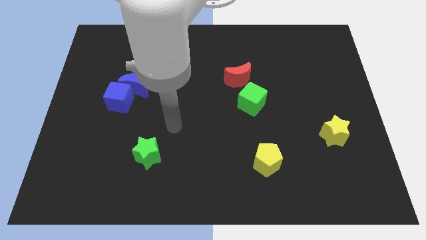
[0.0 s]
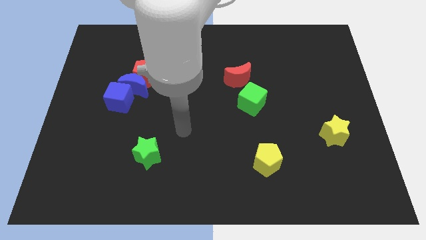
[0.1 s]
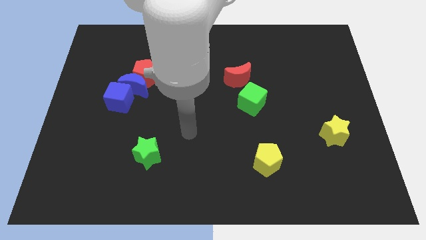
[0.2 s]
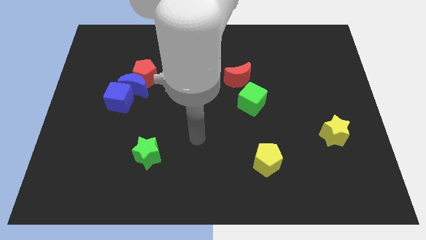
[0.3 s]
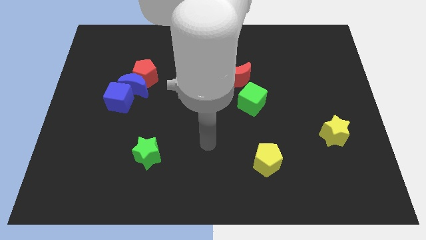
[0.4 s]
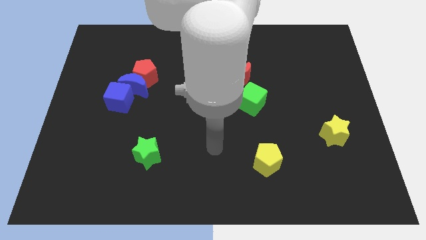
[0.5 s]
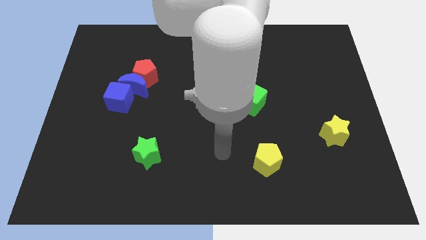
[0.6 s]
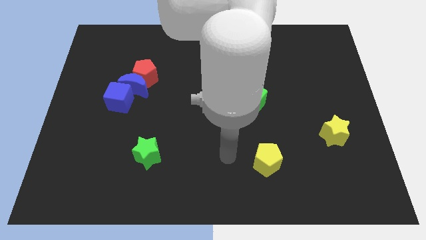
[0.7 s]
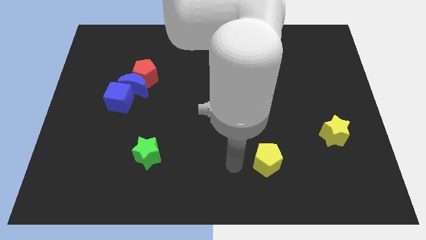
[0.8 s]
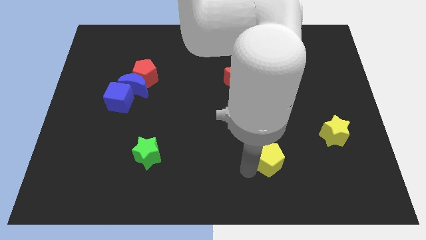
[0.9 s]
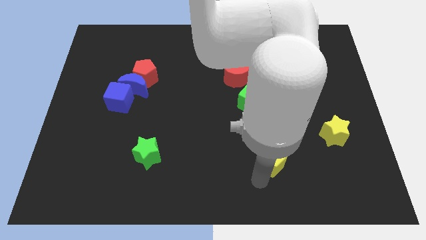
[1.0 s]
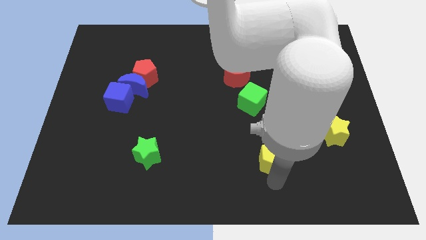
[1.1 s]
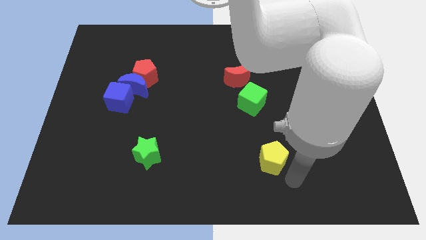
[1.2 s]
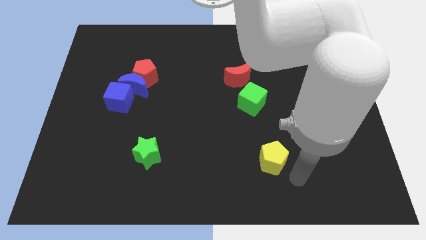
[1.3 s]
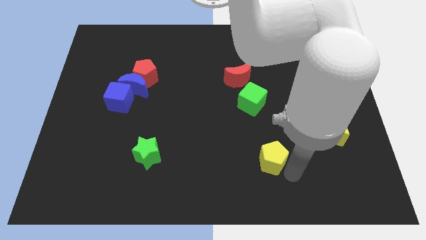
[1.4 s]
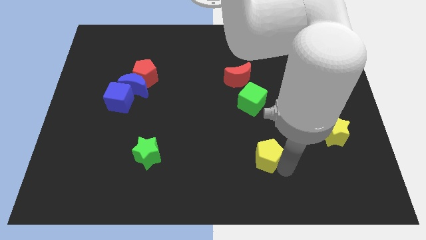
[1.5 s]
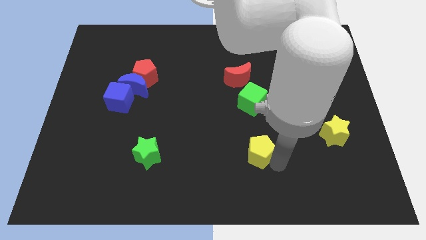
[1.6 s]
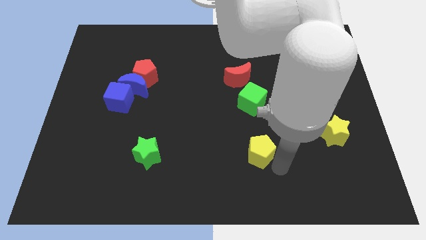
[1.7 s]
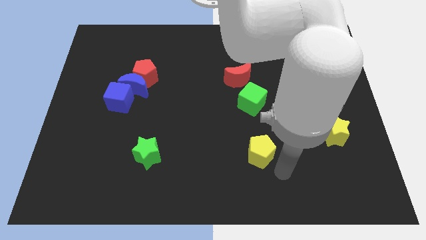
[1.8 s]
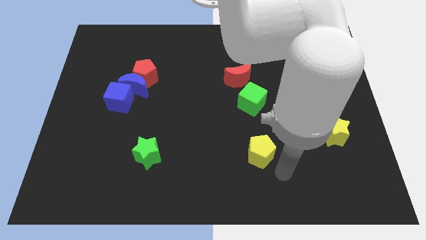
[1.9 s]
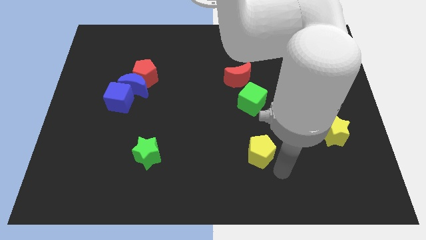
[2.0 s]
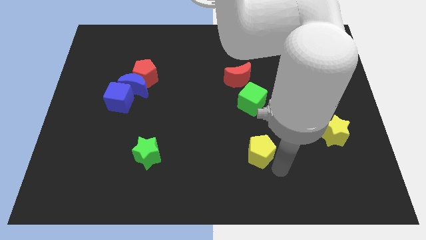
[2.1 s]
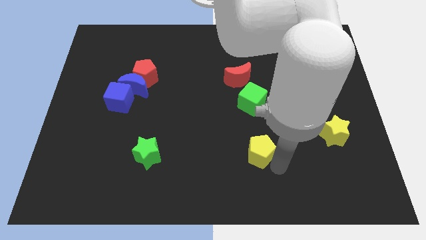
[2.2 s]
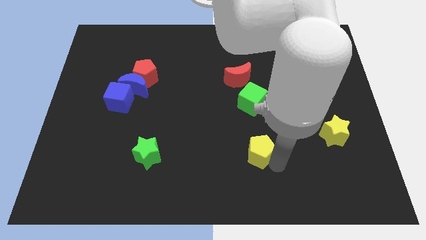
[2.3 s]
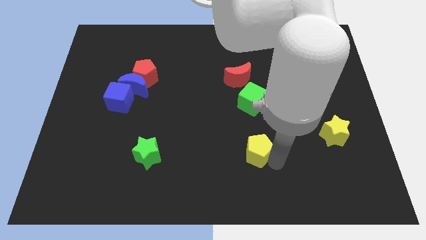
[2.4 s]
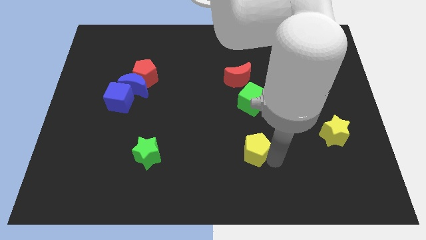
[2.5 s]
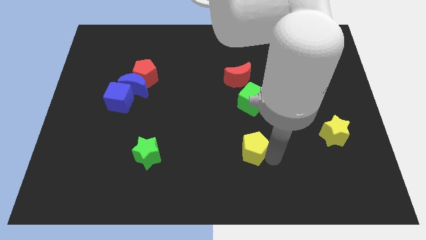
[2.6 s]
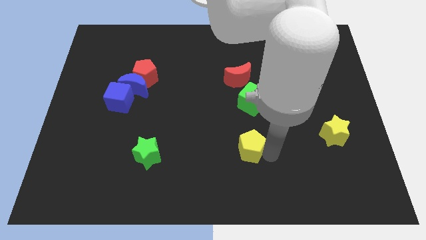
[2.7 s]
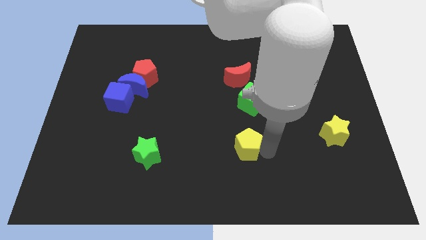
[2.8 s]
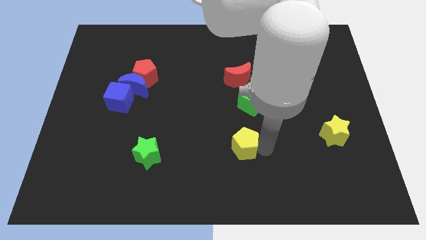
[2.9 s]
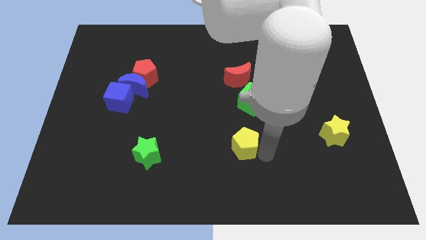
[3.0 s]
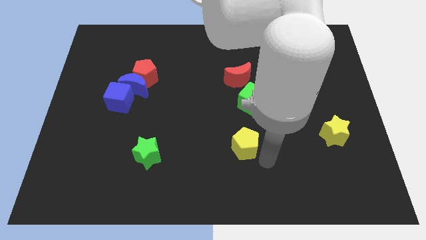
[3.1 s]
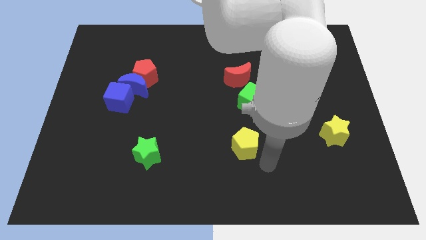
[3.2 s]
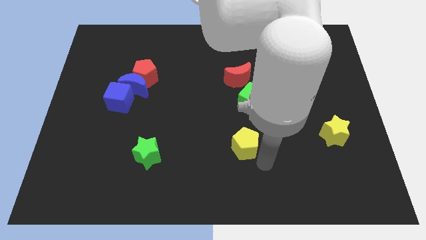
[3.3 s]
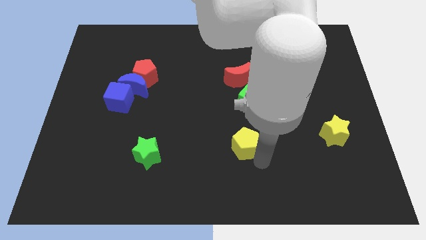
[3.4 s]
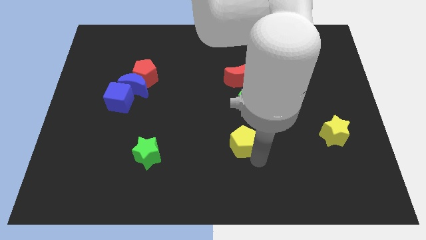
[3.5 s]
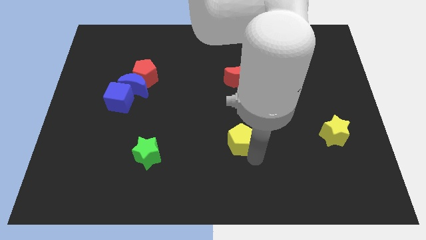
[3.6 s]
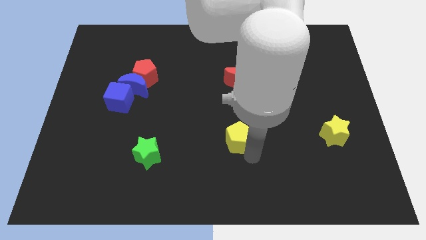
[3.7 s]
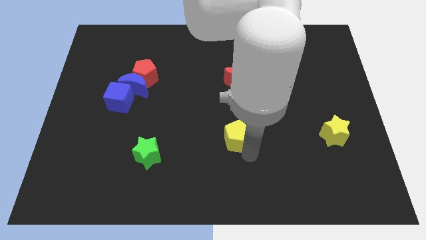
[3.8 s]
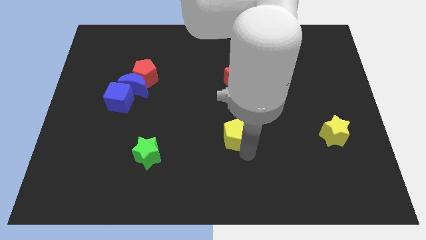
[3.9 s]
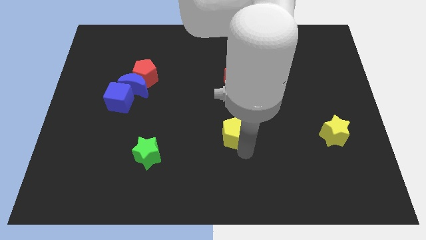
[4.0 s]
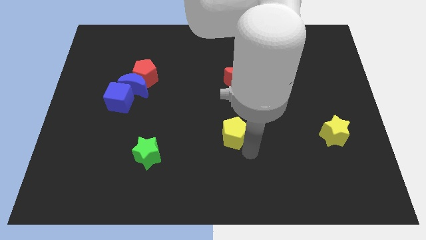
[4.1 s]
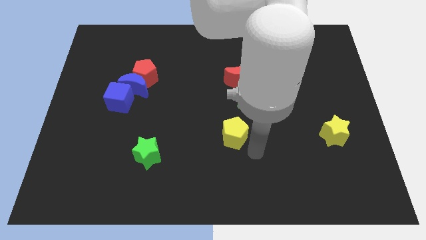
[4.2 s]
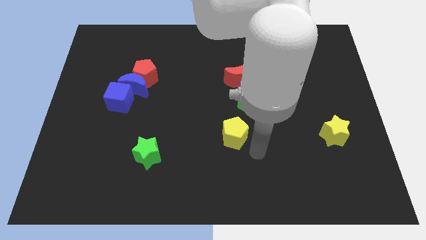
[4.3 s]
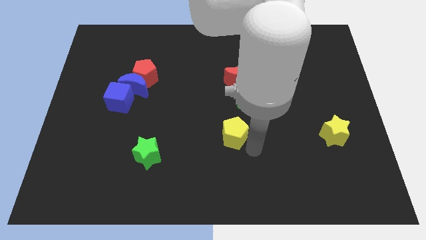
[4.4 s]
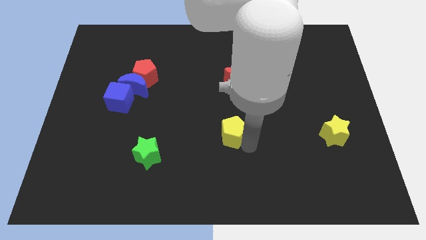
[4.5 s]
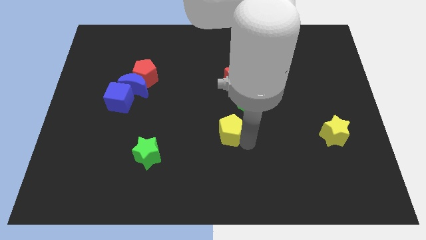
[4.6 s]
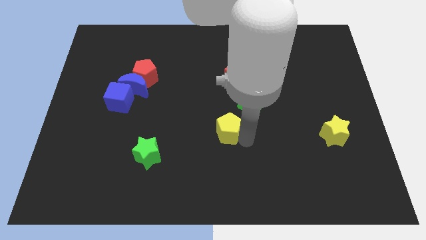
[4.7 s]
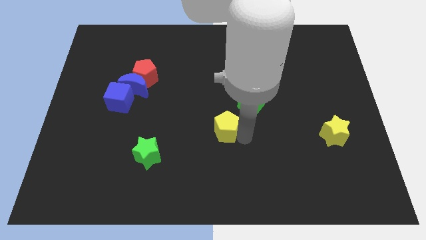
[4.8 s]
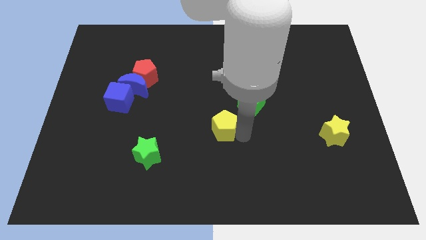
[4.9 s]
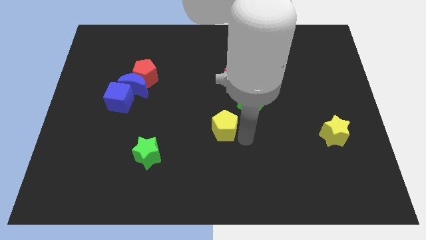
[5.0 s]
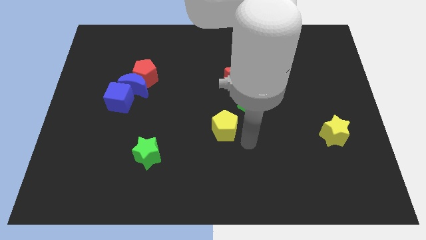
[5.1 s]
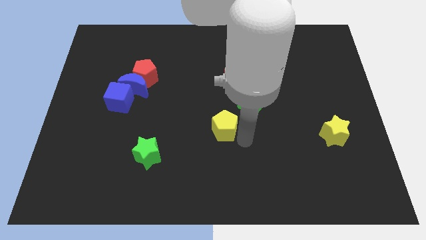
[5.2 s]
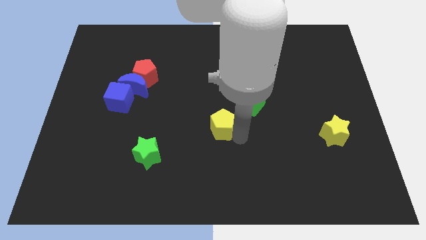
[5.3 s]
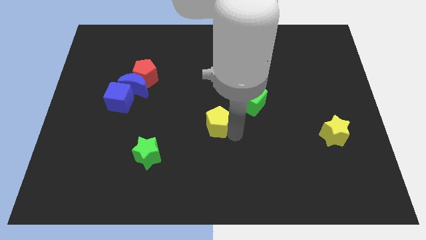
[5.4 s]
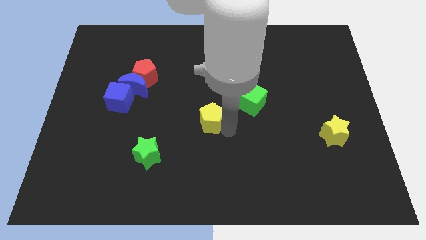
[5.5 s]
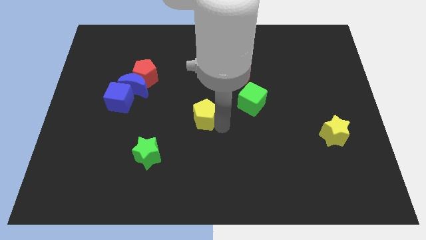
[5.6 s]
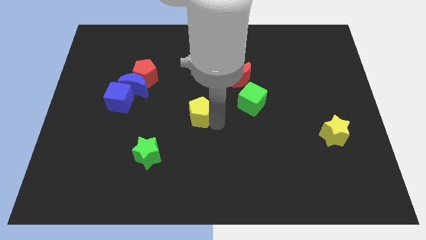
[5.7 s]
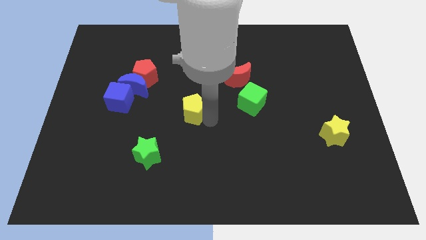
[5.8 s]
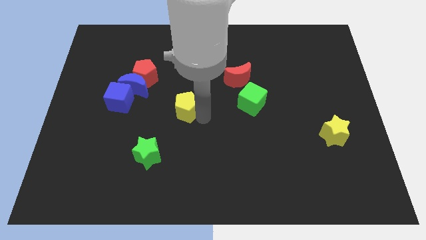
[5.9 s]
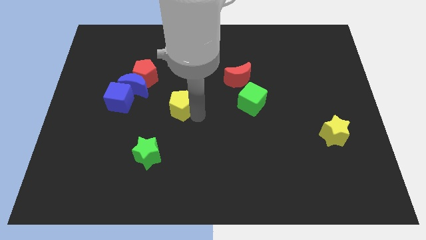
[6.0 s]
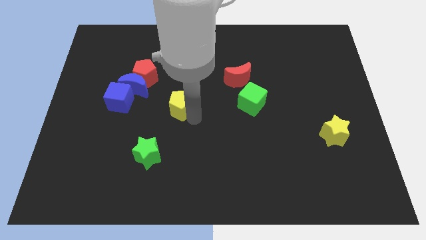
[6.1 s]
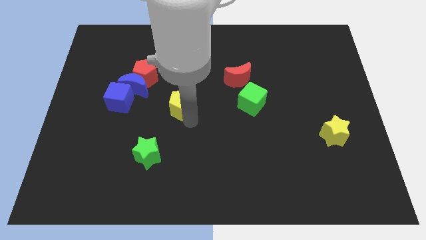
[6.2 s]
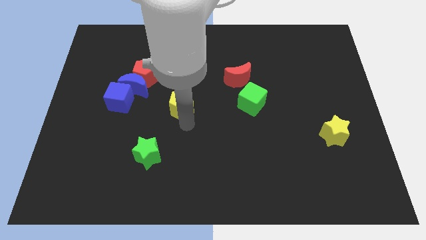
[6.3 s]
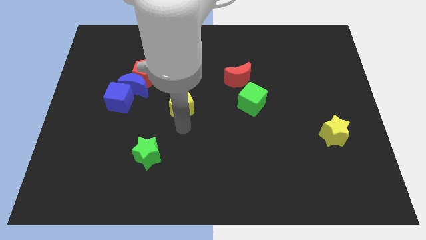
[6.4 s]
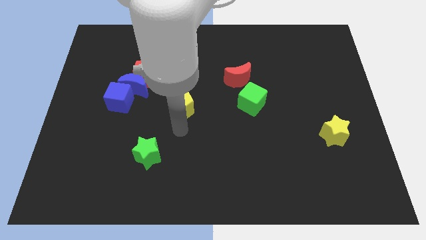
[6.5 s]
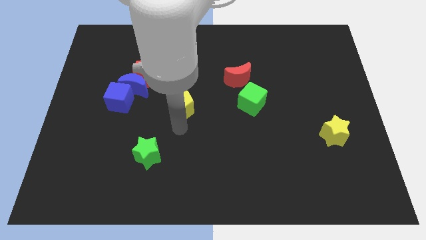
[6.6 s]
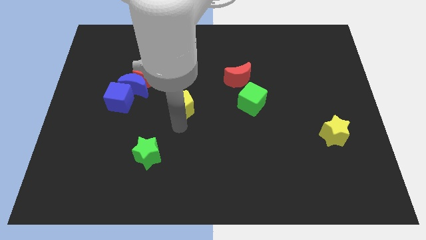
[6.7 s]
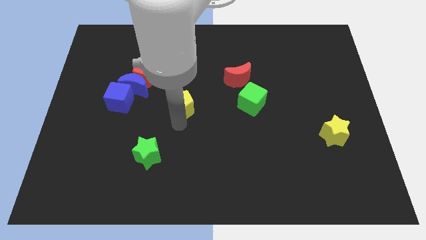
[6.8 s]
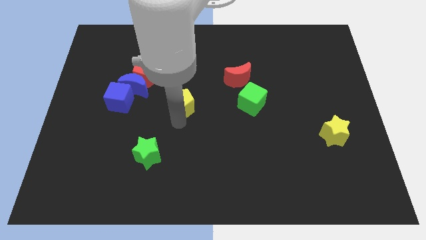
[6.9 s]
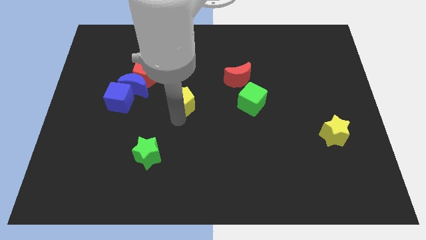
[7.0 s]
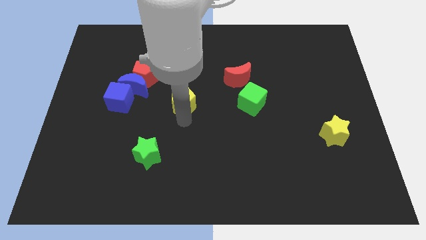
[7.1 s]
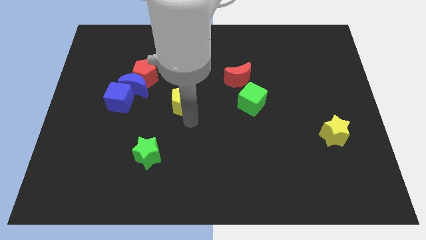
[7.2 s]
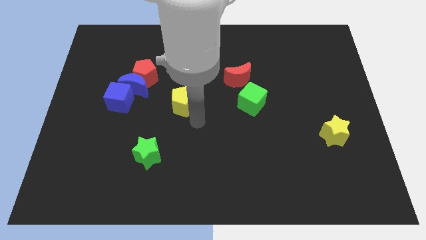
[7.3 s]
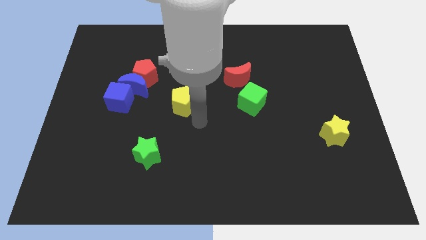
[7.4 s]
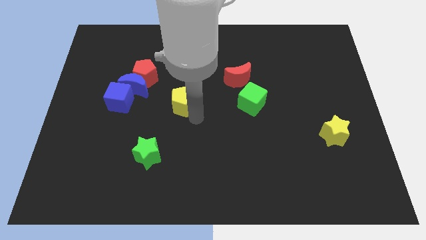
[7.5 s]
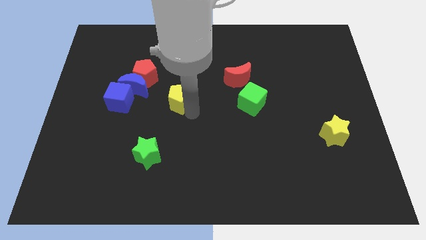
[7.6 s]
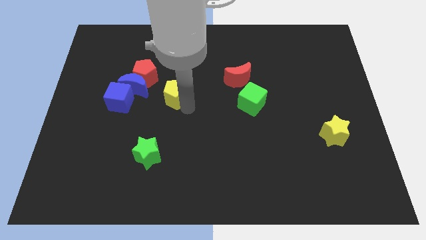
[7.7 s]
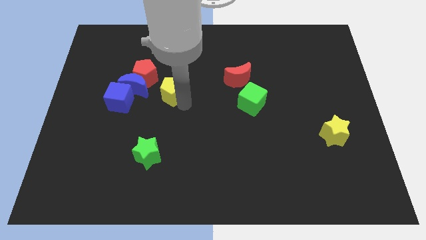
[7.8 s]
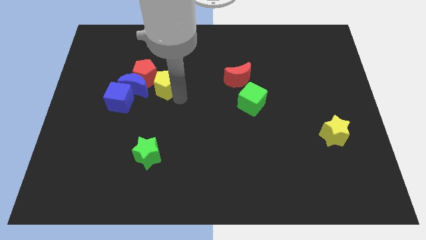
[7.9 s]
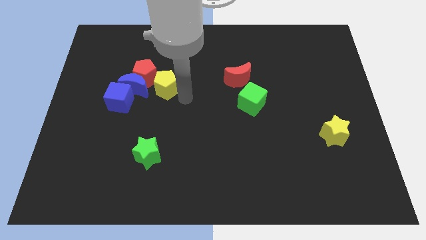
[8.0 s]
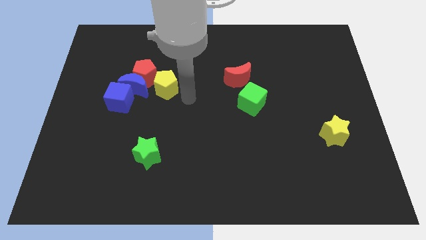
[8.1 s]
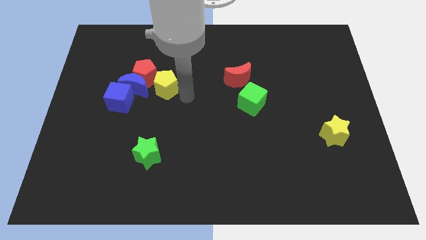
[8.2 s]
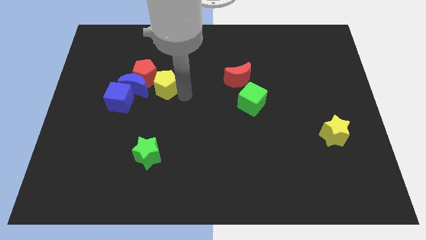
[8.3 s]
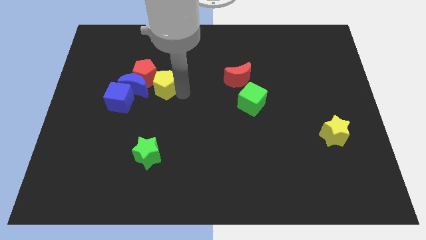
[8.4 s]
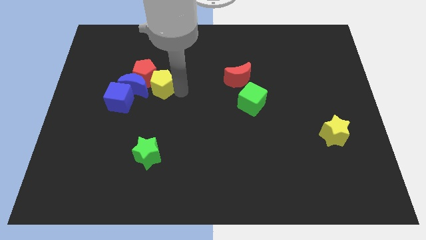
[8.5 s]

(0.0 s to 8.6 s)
push the yellow pentagon to the red pentagon
